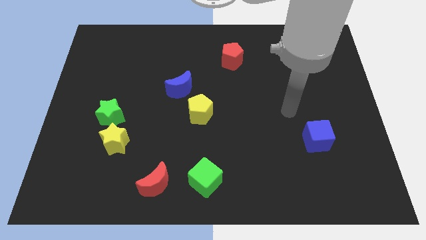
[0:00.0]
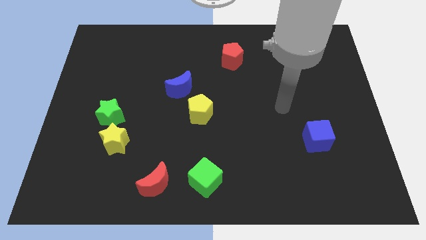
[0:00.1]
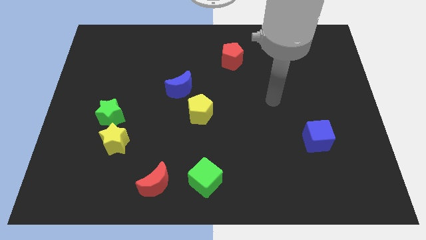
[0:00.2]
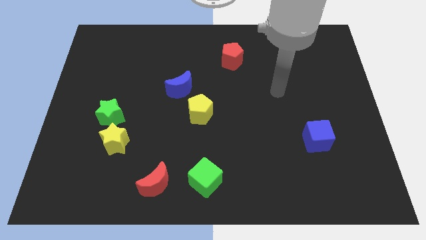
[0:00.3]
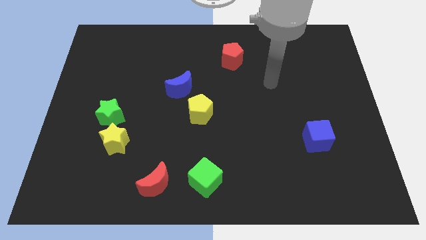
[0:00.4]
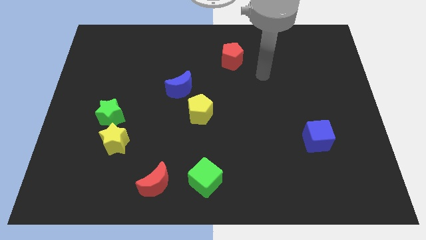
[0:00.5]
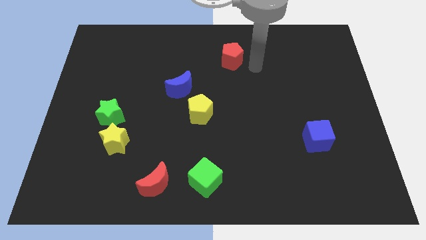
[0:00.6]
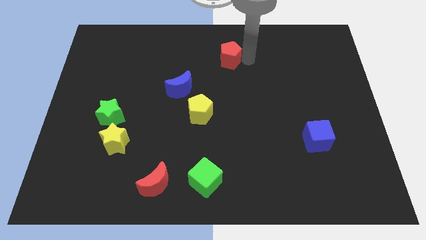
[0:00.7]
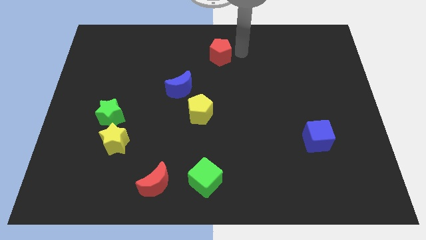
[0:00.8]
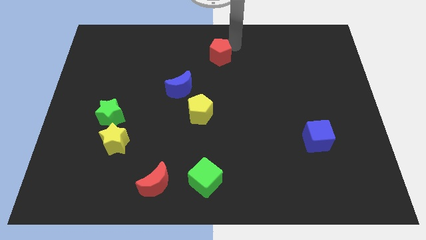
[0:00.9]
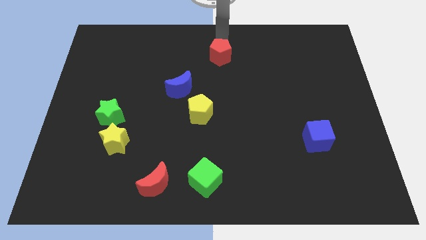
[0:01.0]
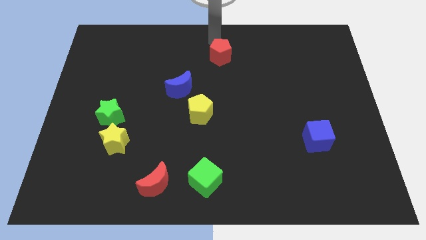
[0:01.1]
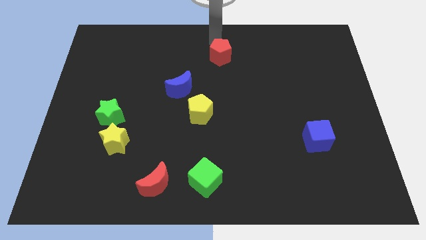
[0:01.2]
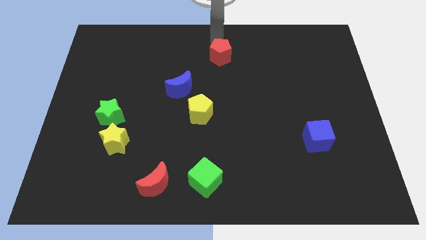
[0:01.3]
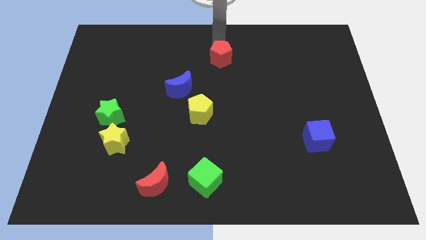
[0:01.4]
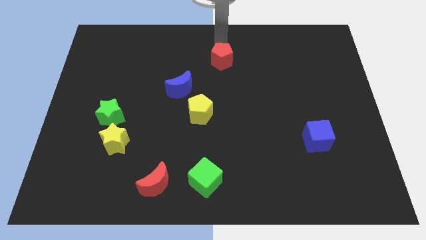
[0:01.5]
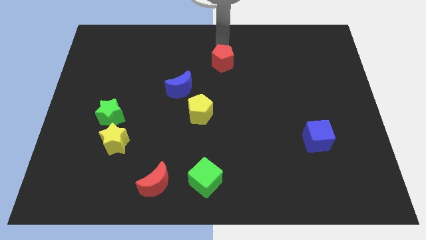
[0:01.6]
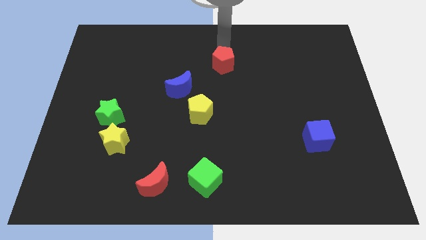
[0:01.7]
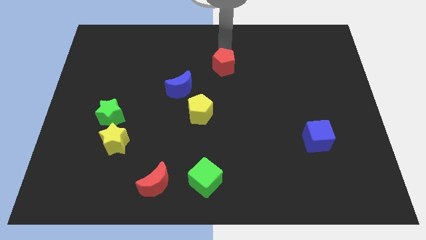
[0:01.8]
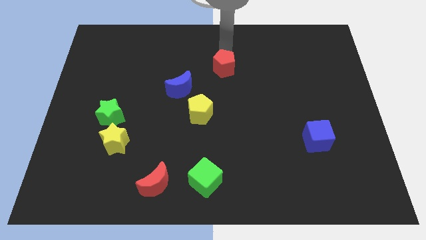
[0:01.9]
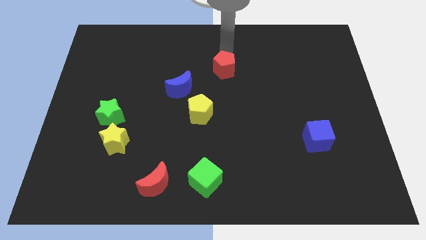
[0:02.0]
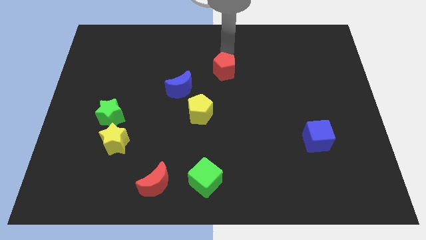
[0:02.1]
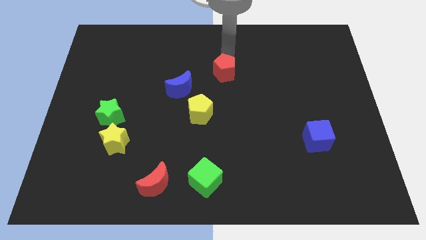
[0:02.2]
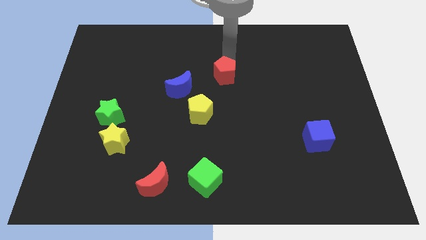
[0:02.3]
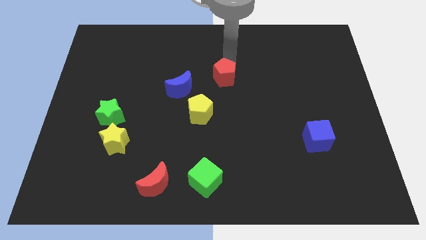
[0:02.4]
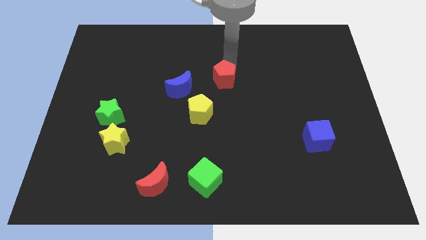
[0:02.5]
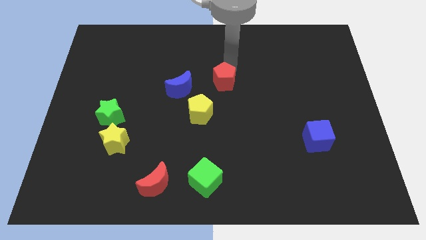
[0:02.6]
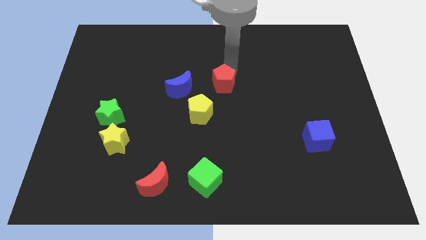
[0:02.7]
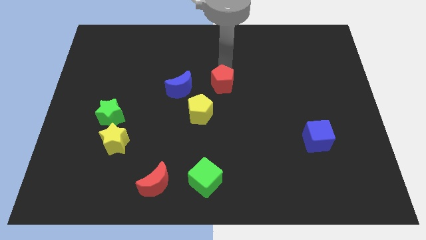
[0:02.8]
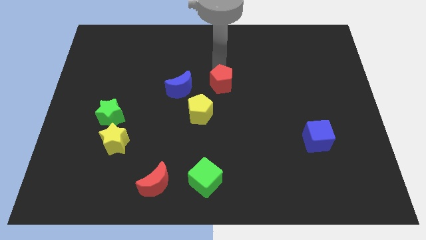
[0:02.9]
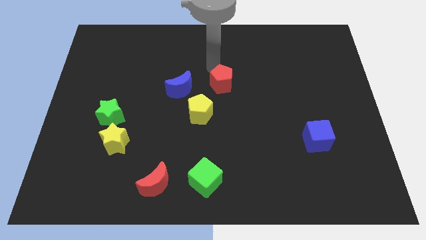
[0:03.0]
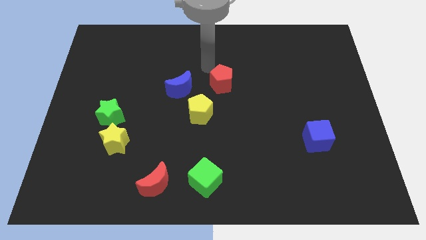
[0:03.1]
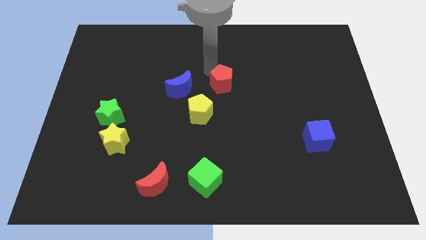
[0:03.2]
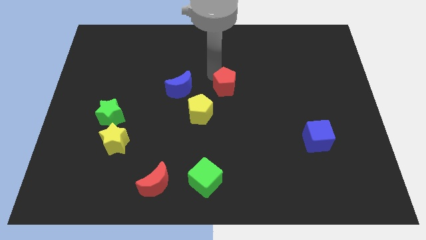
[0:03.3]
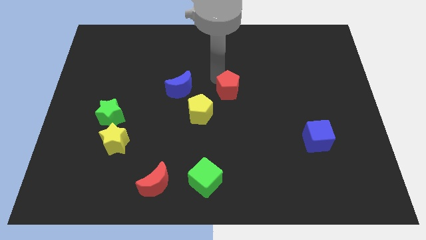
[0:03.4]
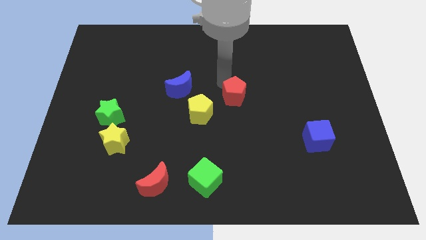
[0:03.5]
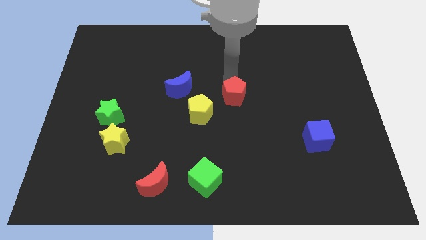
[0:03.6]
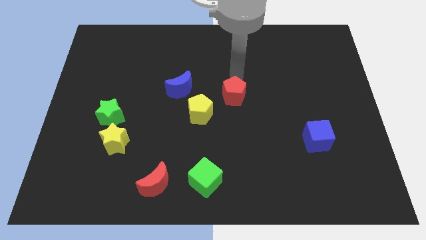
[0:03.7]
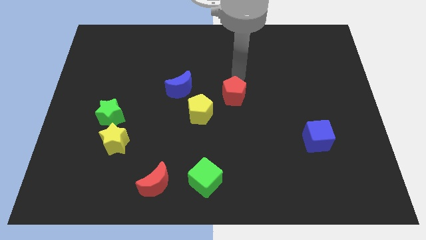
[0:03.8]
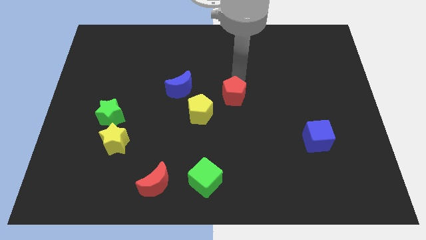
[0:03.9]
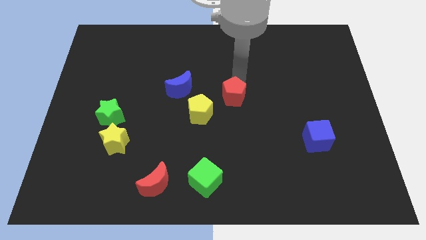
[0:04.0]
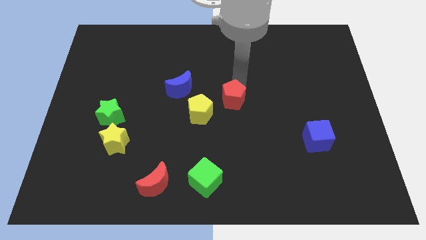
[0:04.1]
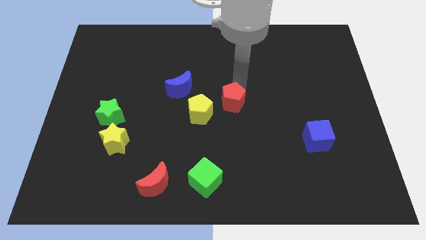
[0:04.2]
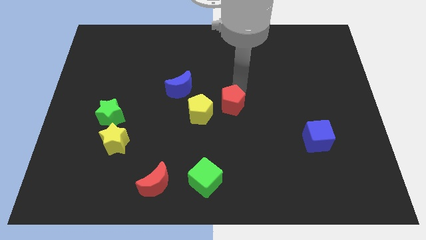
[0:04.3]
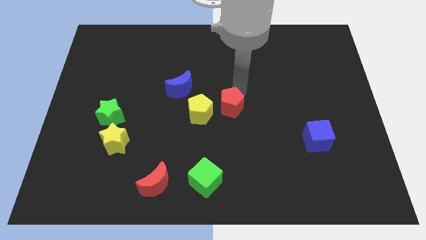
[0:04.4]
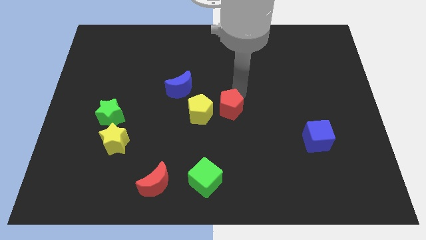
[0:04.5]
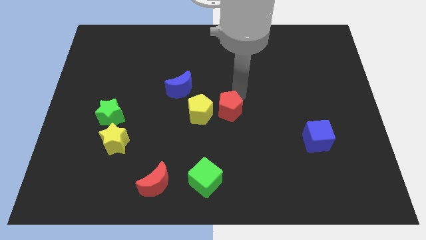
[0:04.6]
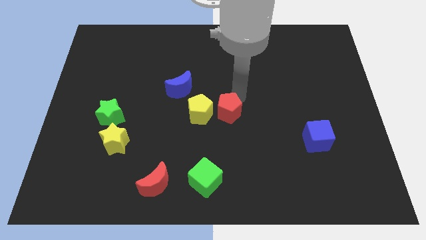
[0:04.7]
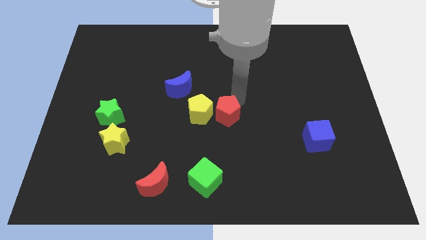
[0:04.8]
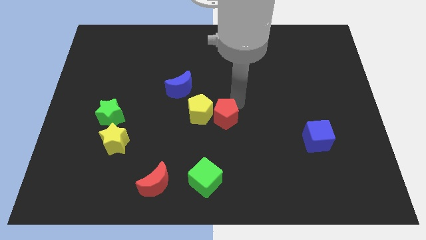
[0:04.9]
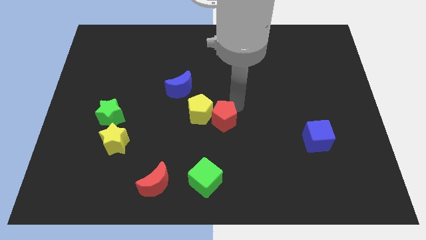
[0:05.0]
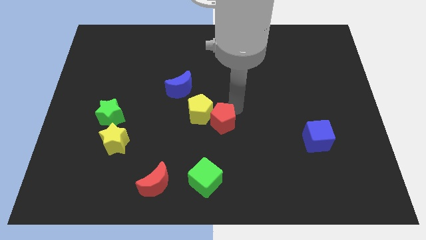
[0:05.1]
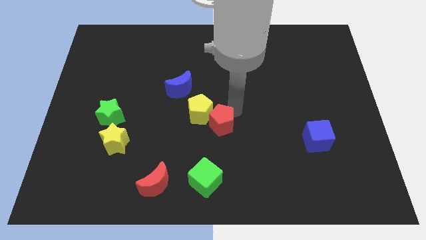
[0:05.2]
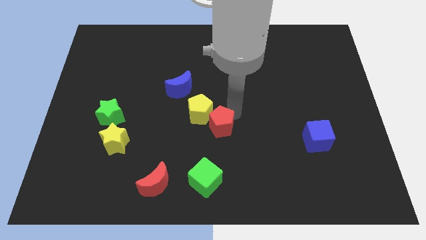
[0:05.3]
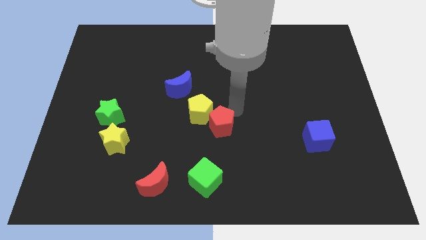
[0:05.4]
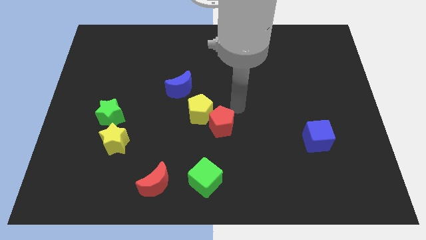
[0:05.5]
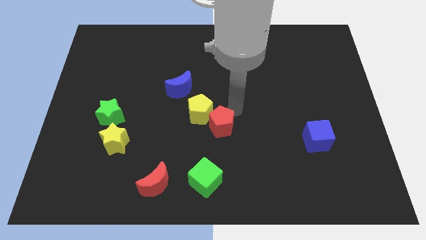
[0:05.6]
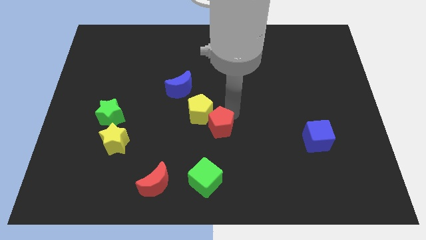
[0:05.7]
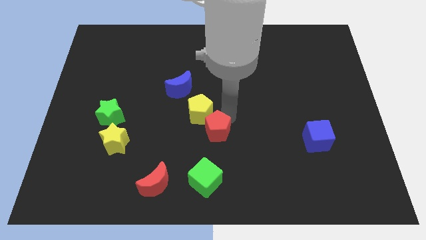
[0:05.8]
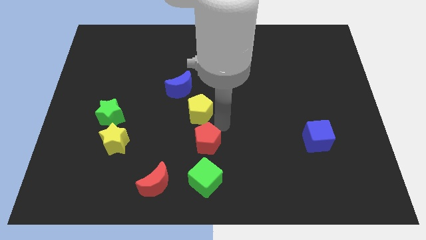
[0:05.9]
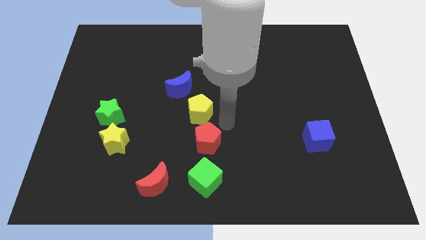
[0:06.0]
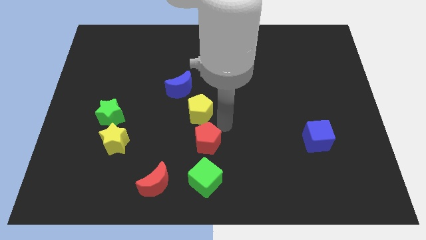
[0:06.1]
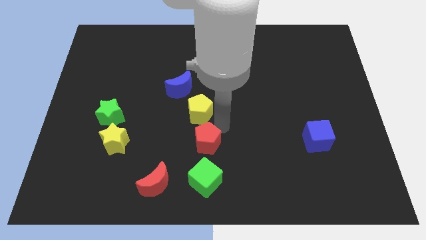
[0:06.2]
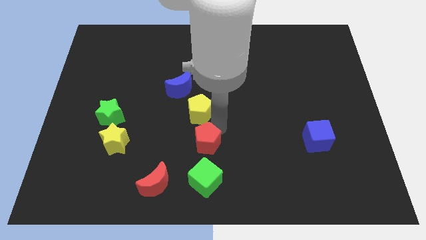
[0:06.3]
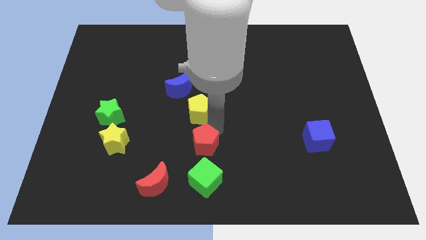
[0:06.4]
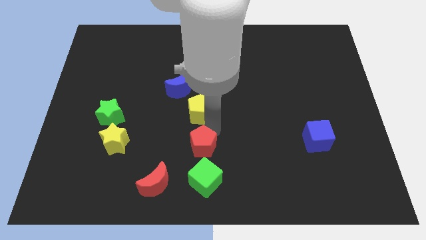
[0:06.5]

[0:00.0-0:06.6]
slide the red pentagon to the top right of the red moon
